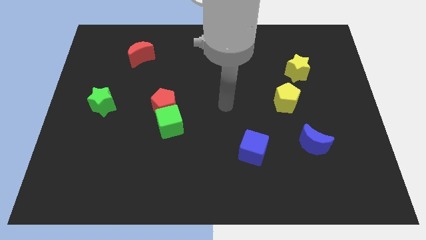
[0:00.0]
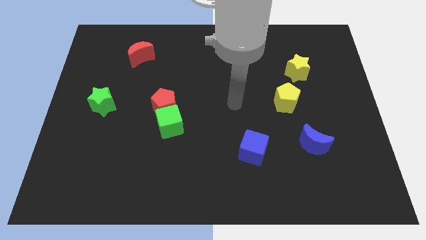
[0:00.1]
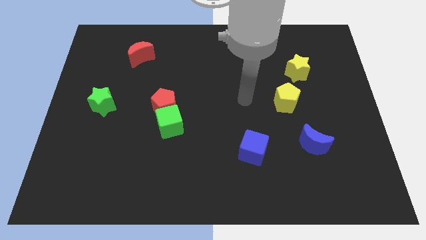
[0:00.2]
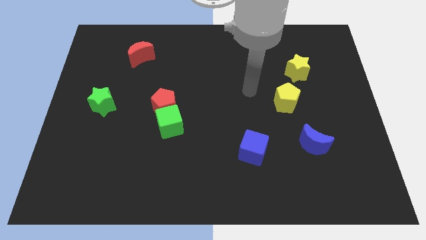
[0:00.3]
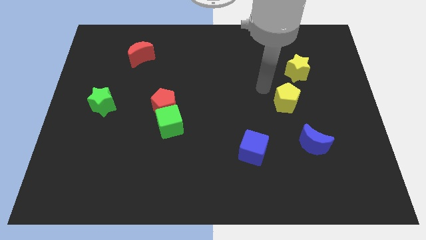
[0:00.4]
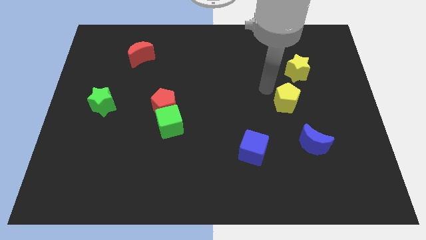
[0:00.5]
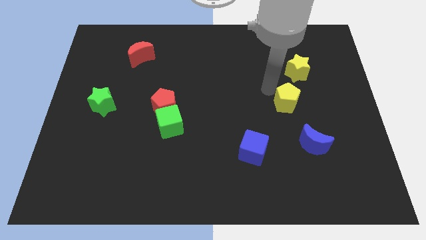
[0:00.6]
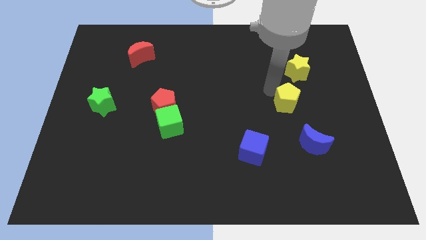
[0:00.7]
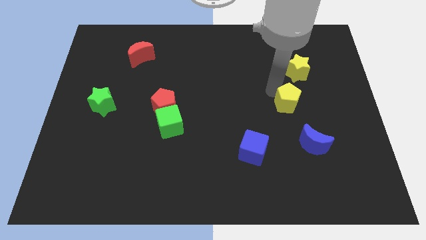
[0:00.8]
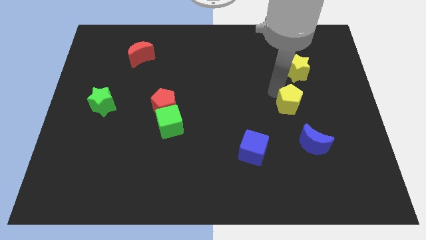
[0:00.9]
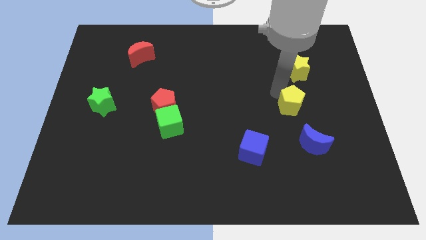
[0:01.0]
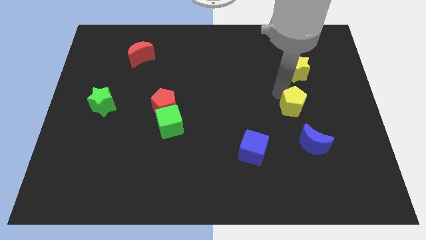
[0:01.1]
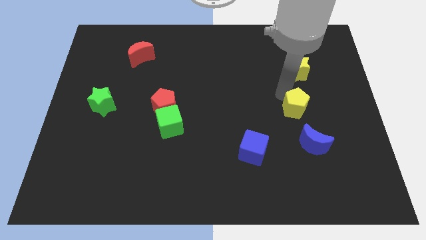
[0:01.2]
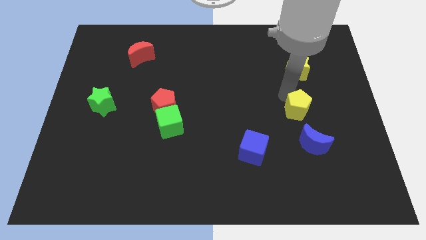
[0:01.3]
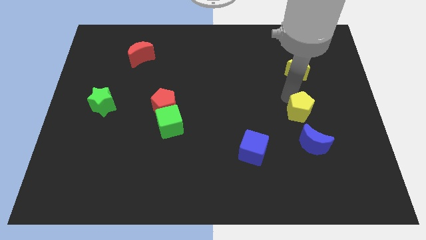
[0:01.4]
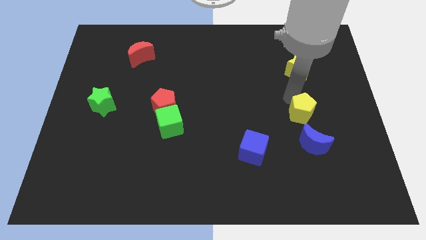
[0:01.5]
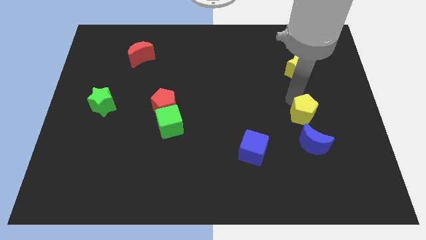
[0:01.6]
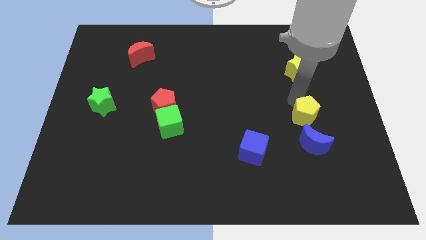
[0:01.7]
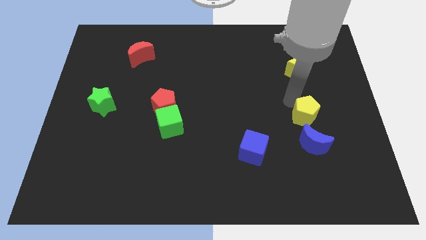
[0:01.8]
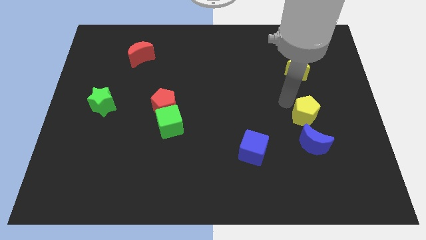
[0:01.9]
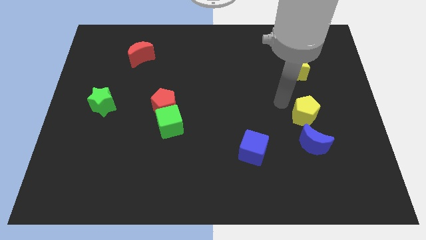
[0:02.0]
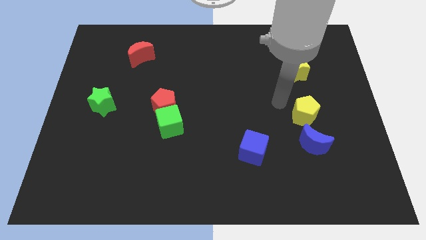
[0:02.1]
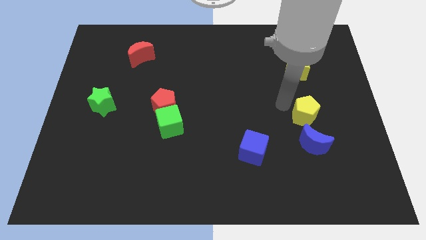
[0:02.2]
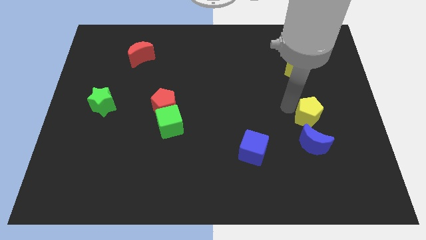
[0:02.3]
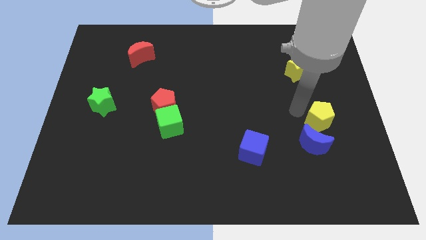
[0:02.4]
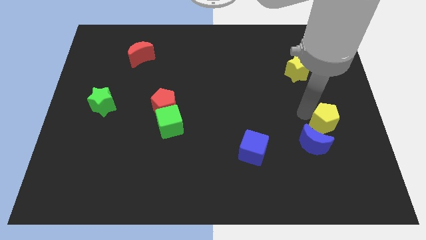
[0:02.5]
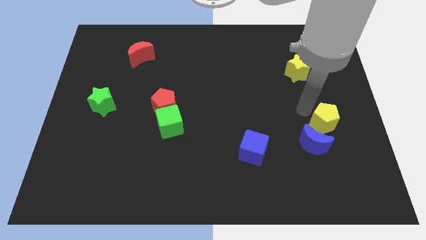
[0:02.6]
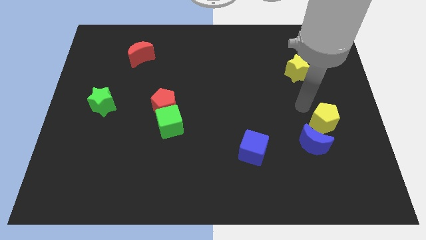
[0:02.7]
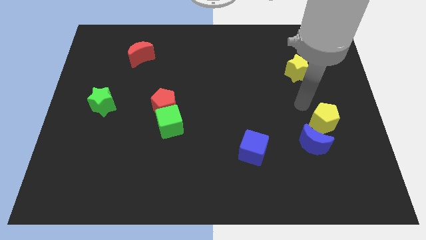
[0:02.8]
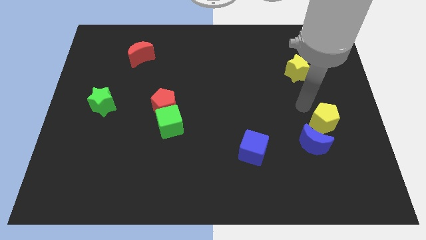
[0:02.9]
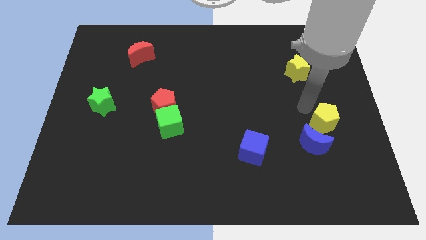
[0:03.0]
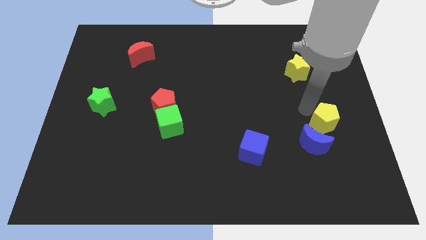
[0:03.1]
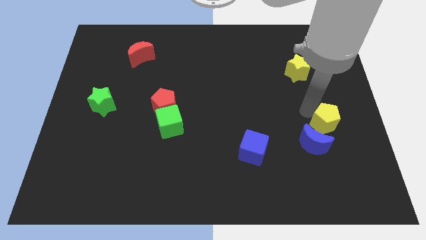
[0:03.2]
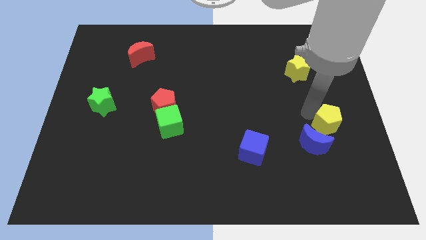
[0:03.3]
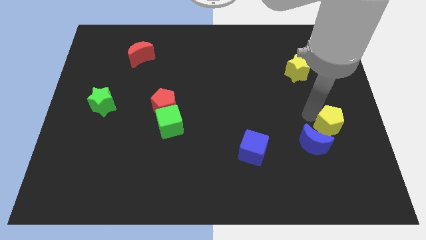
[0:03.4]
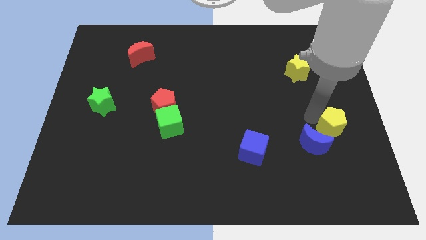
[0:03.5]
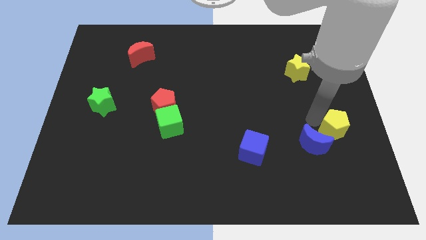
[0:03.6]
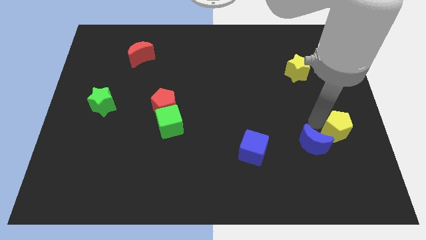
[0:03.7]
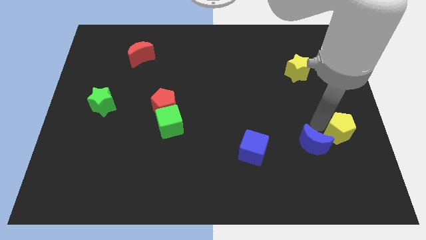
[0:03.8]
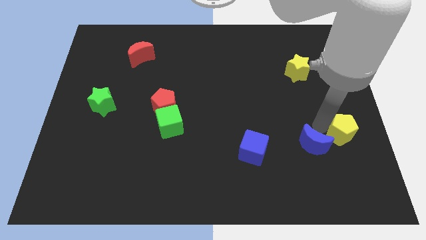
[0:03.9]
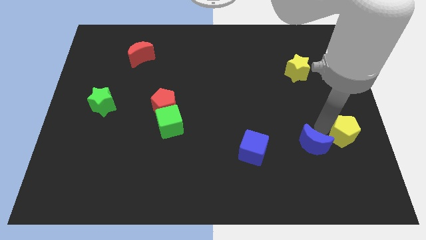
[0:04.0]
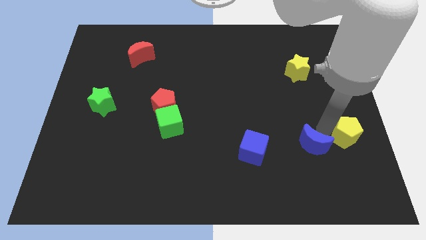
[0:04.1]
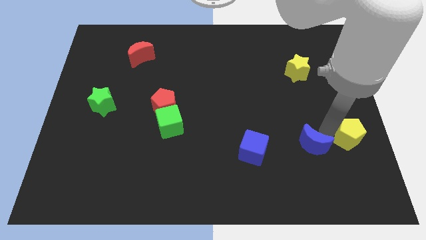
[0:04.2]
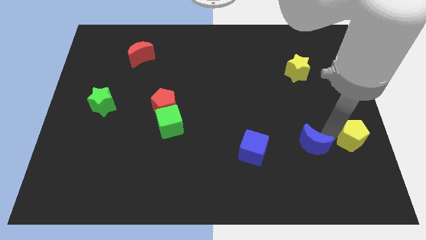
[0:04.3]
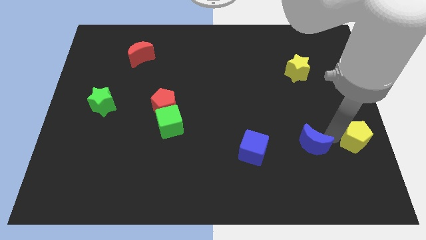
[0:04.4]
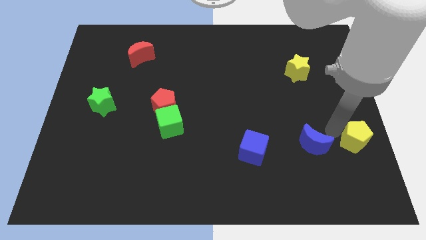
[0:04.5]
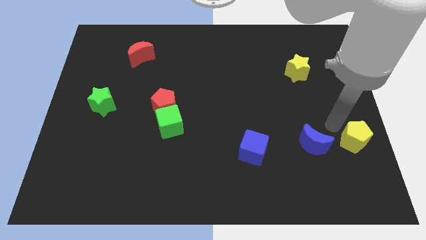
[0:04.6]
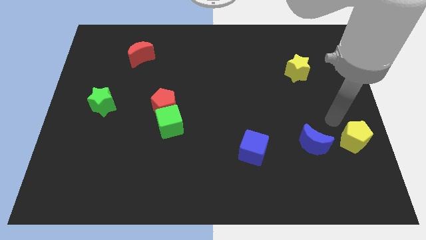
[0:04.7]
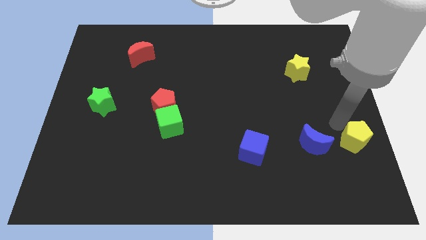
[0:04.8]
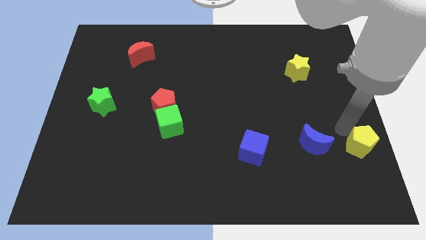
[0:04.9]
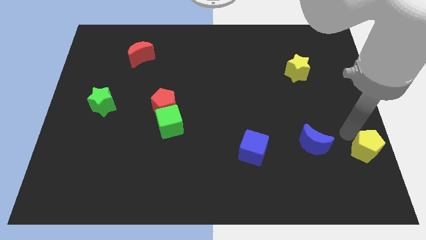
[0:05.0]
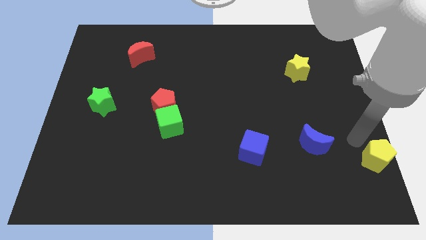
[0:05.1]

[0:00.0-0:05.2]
push the yellow pentagon to the bottom right of the board

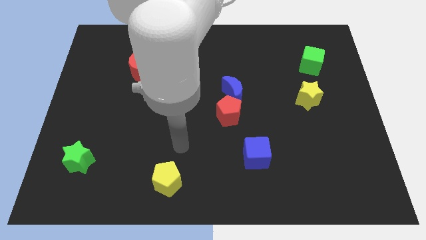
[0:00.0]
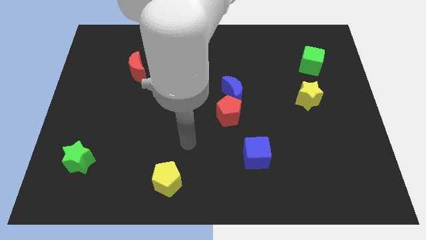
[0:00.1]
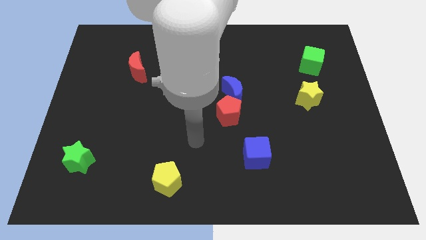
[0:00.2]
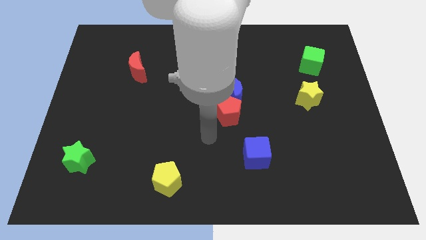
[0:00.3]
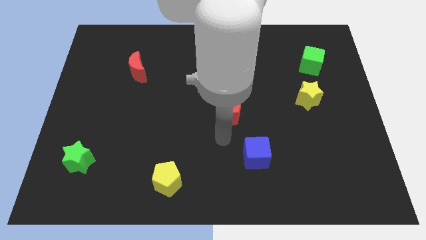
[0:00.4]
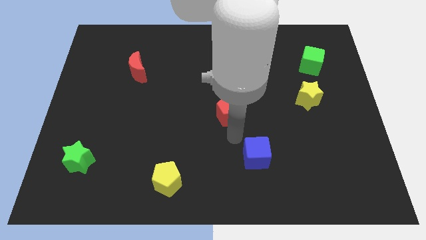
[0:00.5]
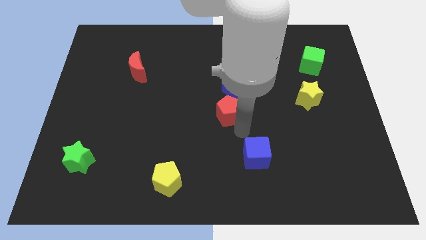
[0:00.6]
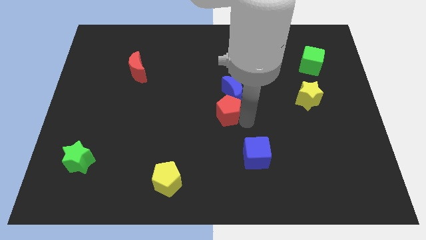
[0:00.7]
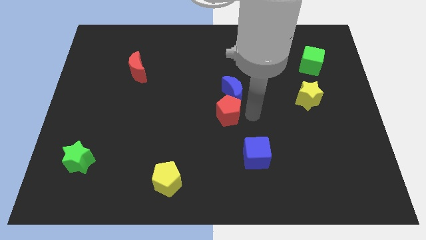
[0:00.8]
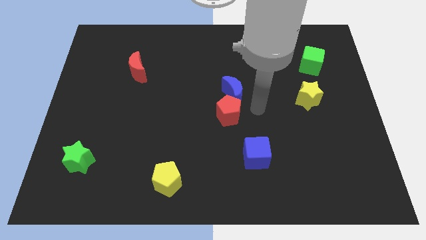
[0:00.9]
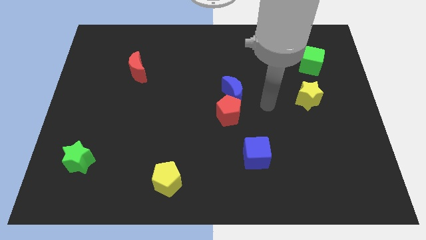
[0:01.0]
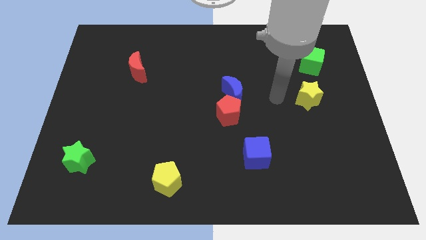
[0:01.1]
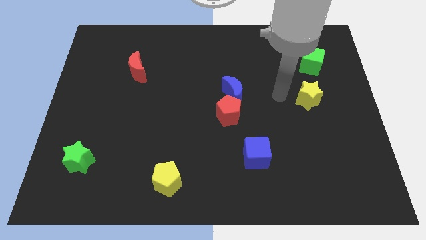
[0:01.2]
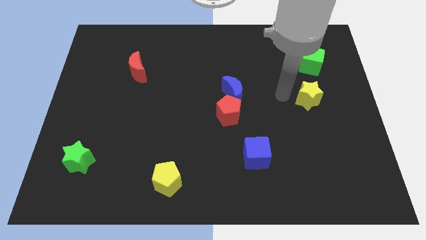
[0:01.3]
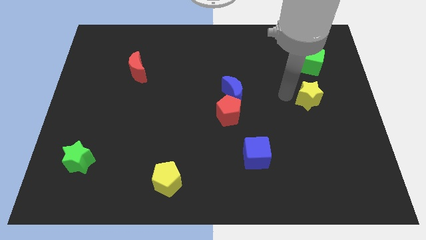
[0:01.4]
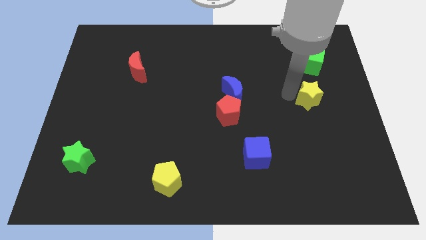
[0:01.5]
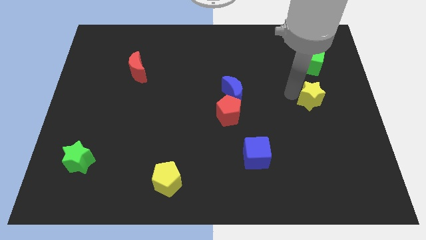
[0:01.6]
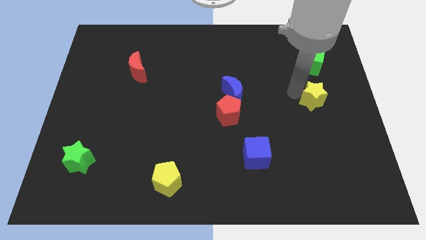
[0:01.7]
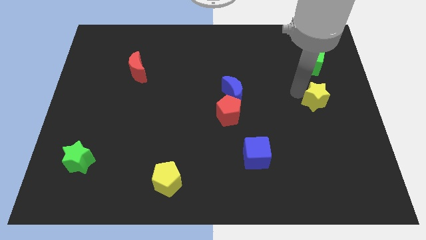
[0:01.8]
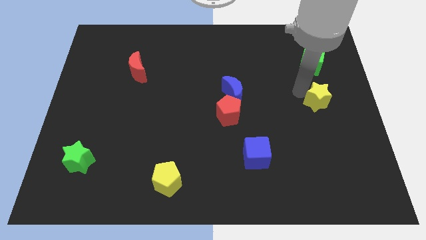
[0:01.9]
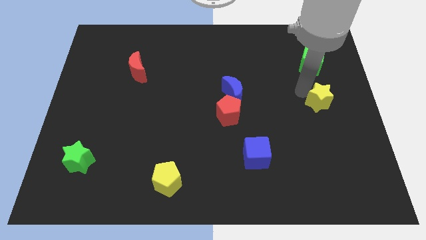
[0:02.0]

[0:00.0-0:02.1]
push the yellow star to the center right
